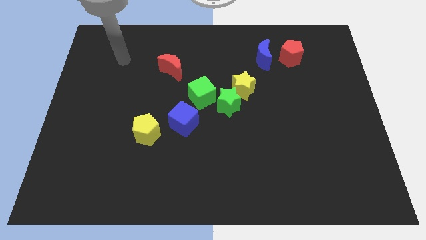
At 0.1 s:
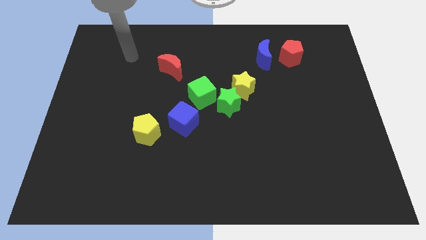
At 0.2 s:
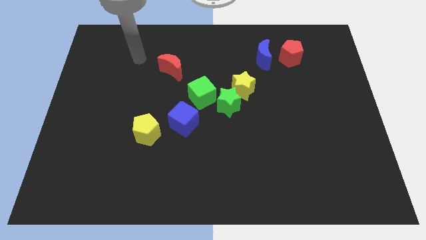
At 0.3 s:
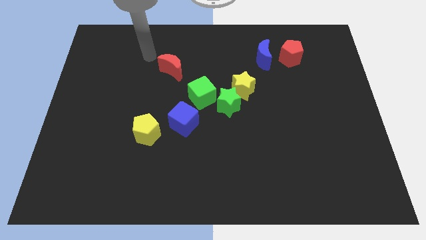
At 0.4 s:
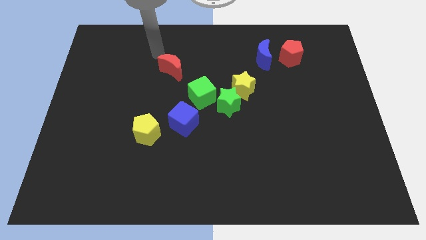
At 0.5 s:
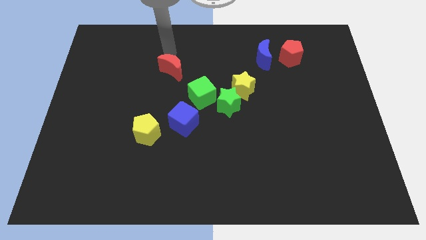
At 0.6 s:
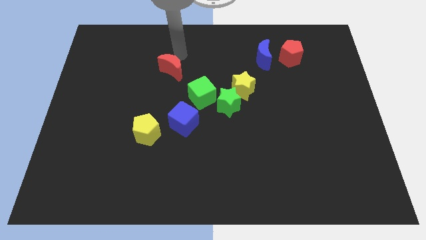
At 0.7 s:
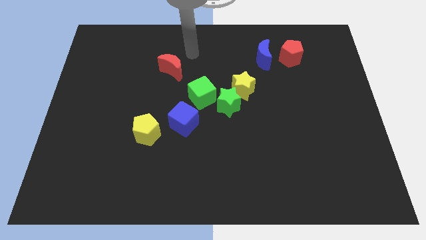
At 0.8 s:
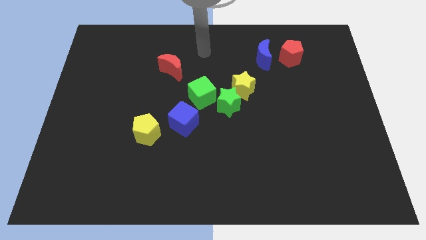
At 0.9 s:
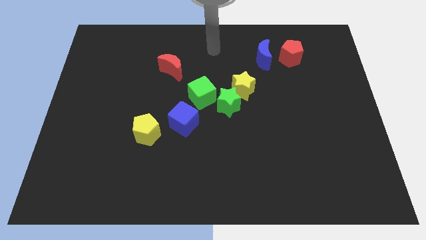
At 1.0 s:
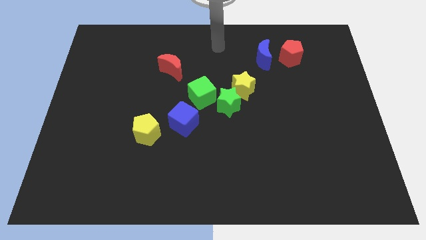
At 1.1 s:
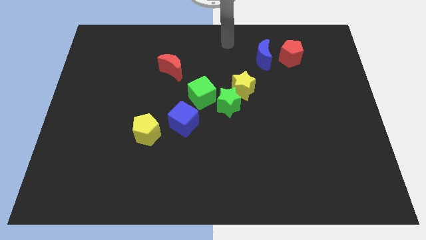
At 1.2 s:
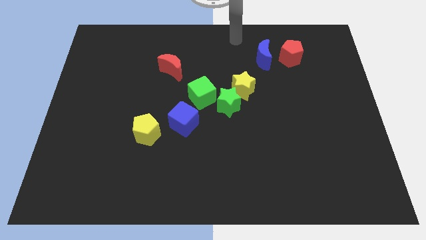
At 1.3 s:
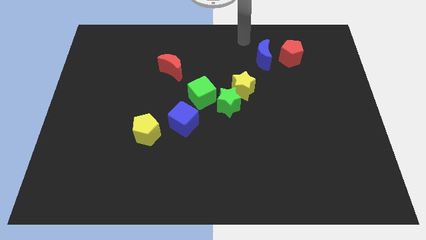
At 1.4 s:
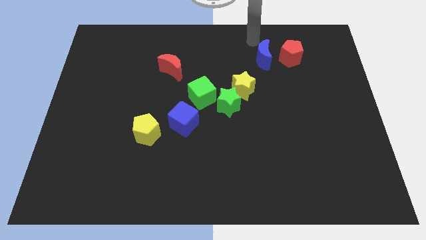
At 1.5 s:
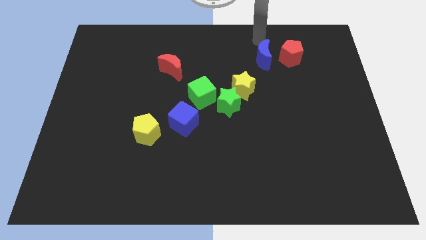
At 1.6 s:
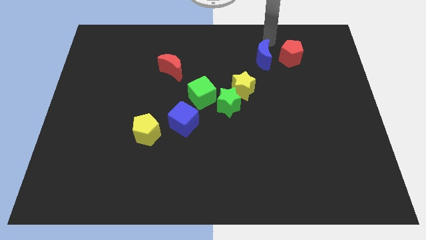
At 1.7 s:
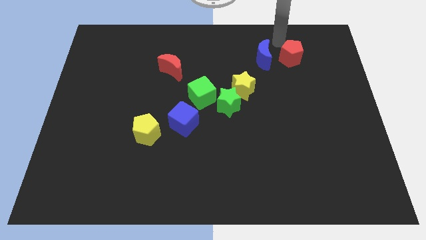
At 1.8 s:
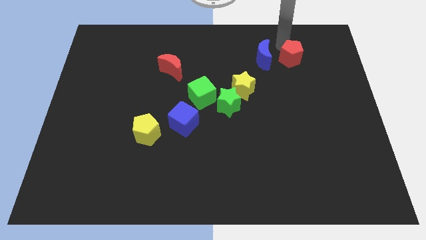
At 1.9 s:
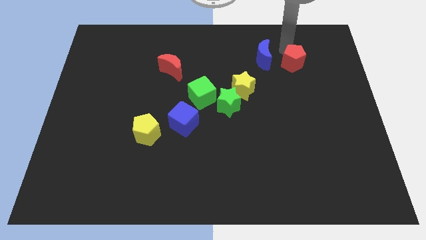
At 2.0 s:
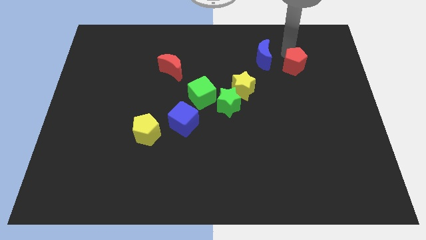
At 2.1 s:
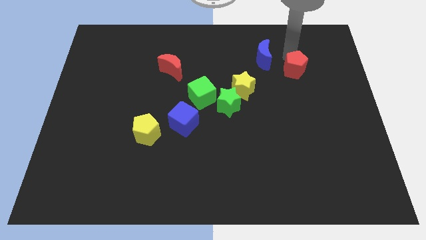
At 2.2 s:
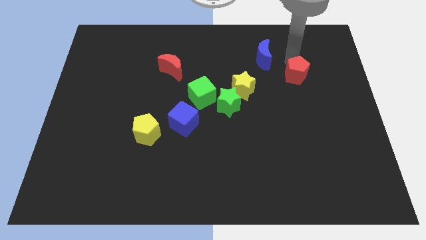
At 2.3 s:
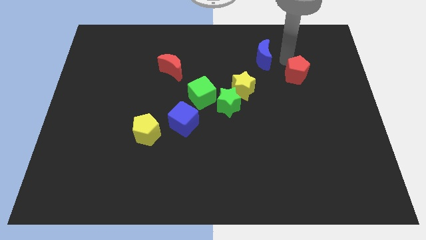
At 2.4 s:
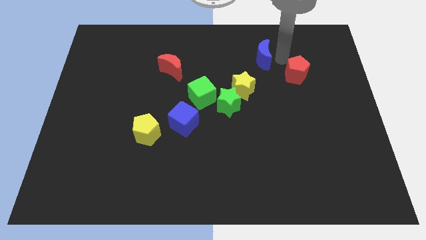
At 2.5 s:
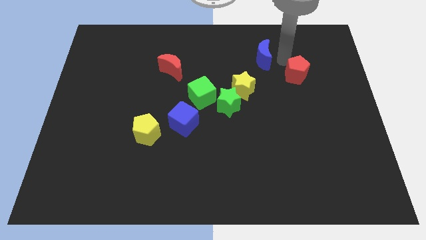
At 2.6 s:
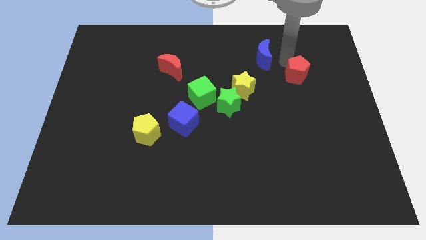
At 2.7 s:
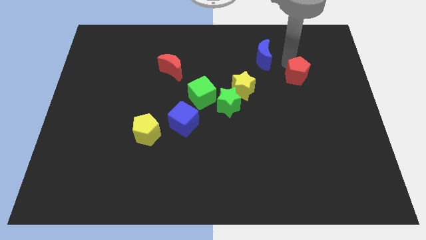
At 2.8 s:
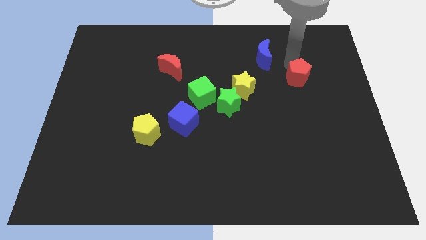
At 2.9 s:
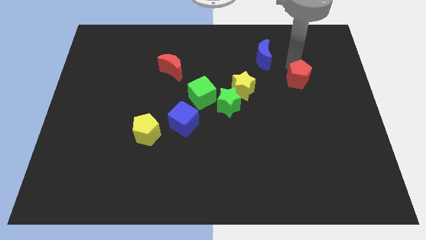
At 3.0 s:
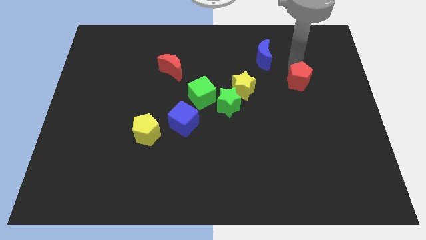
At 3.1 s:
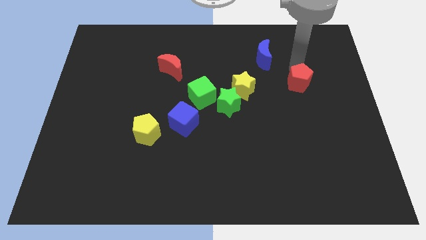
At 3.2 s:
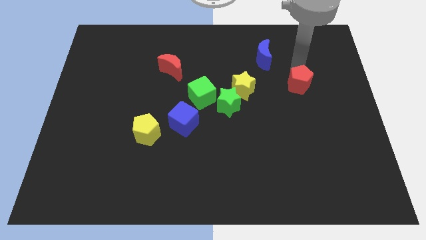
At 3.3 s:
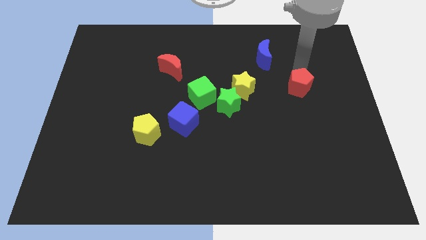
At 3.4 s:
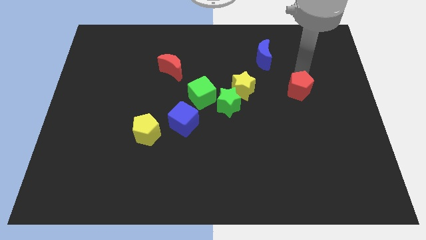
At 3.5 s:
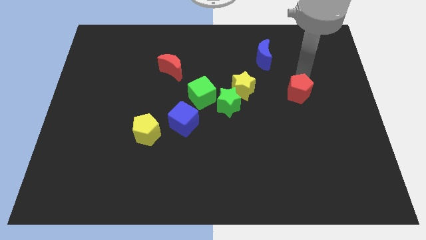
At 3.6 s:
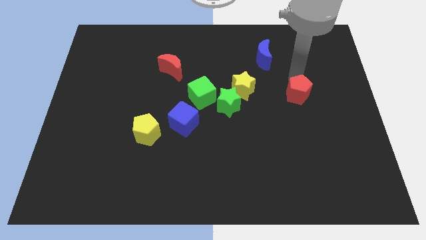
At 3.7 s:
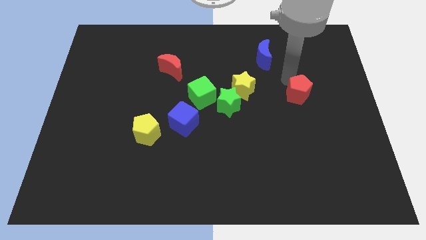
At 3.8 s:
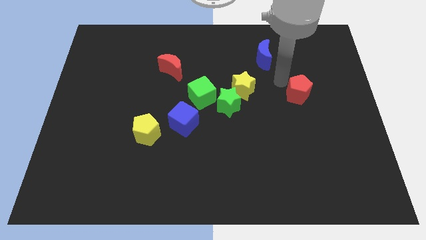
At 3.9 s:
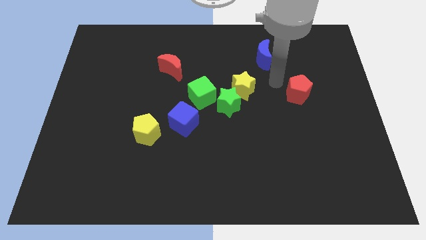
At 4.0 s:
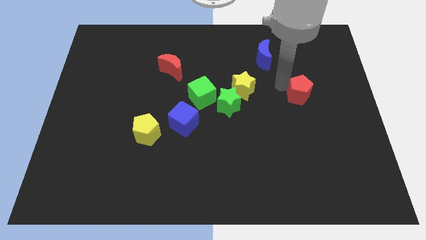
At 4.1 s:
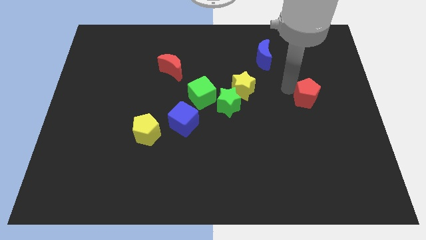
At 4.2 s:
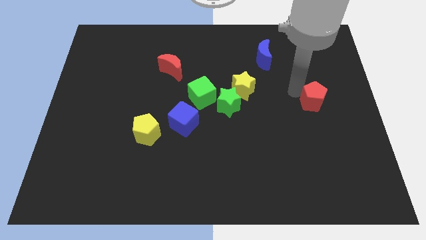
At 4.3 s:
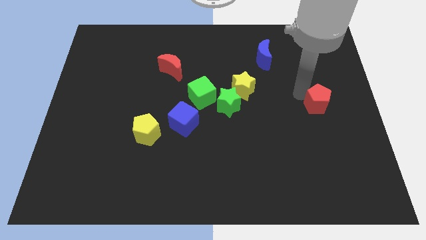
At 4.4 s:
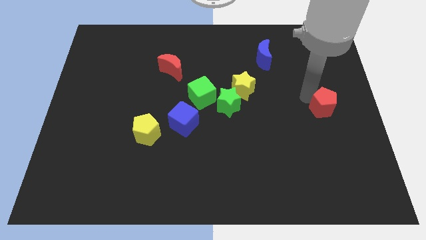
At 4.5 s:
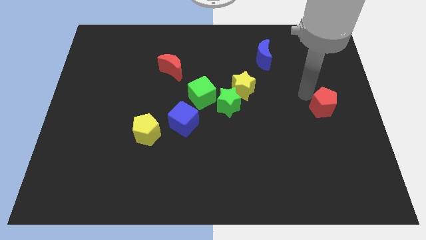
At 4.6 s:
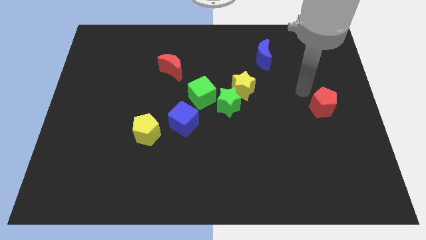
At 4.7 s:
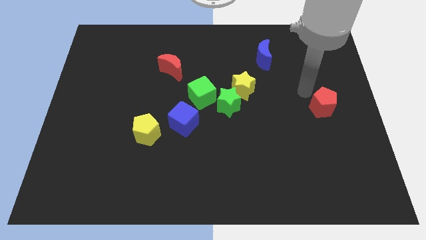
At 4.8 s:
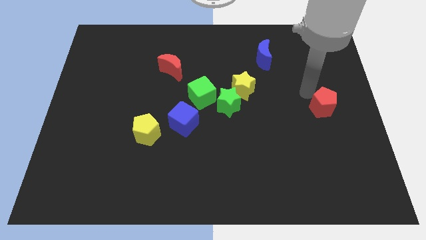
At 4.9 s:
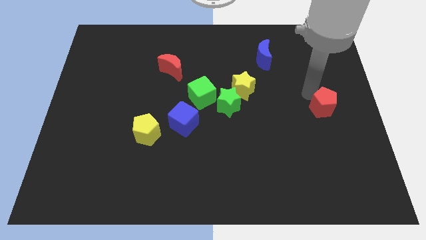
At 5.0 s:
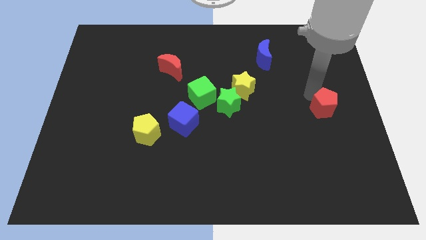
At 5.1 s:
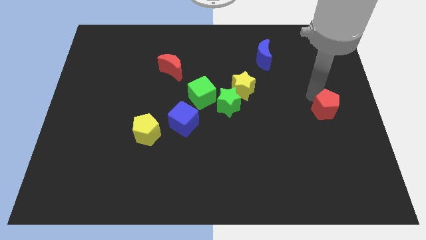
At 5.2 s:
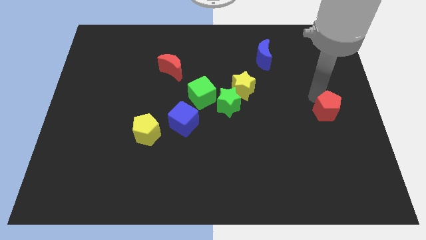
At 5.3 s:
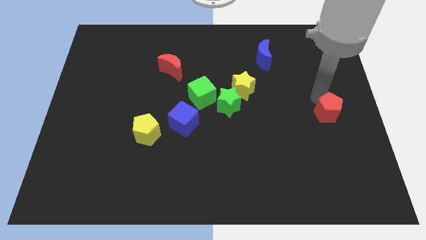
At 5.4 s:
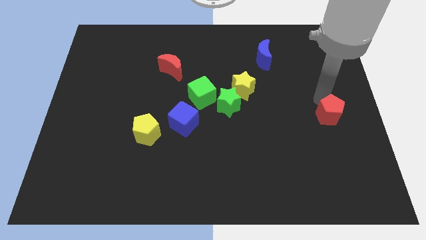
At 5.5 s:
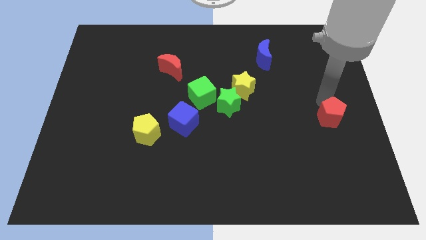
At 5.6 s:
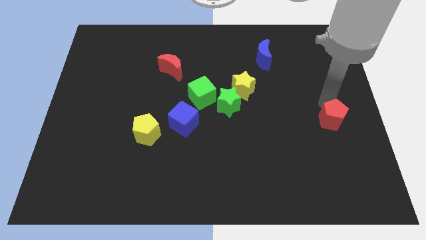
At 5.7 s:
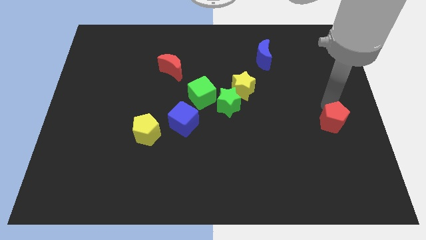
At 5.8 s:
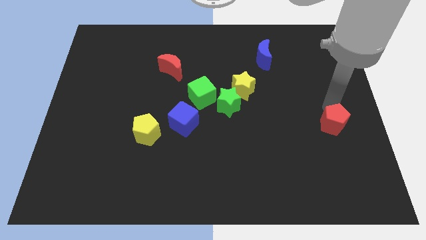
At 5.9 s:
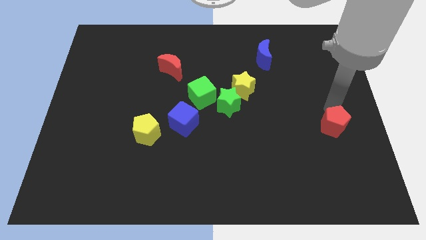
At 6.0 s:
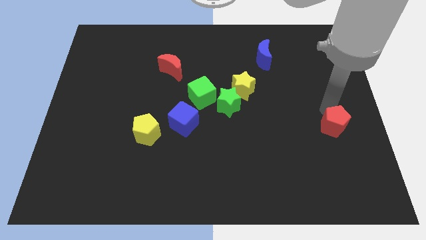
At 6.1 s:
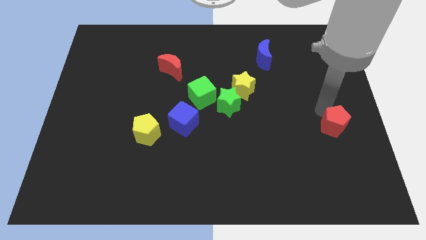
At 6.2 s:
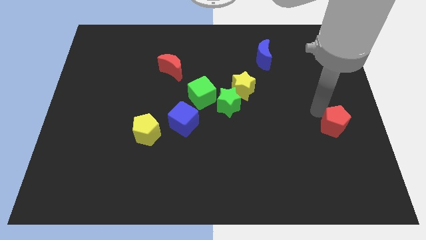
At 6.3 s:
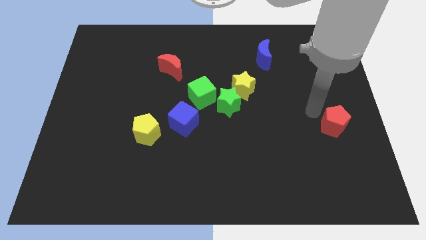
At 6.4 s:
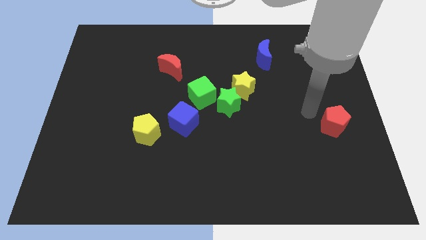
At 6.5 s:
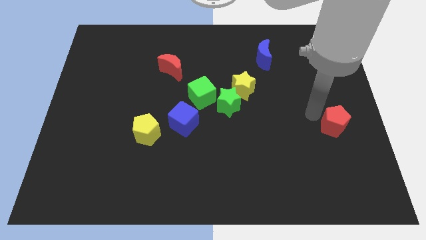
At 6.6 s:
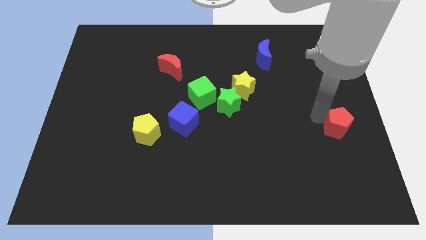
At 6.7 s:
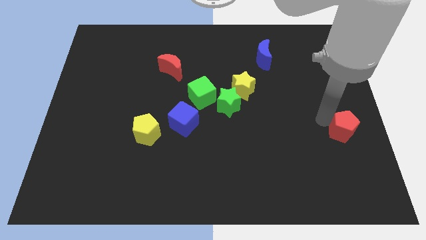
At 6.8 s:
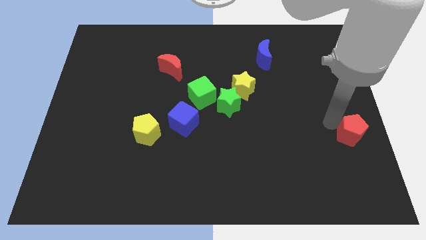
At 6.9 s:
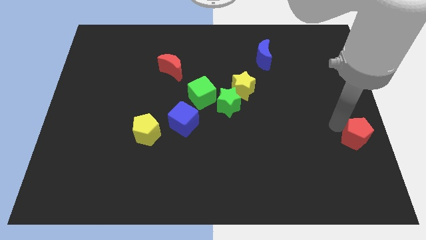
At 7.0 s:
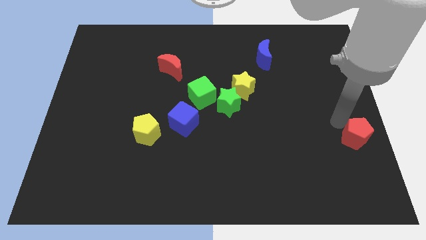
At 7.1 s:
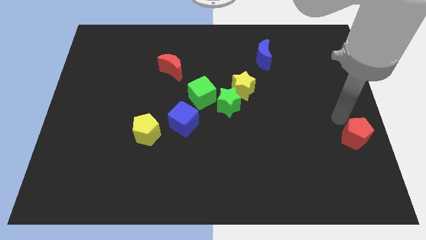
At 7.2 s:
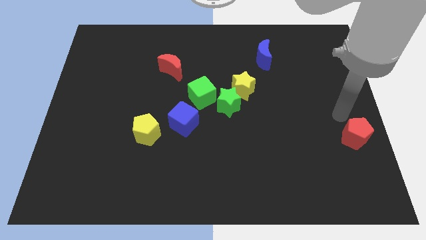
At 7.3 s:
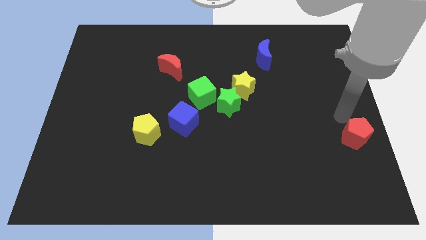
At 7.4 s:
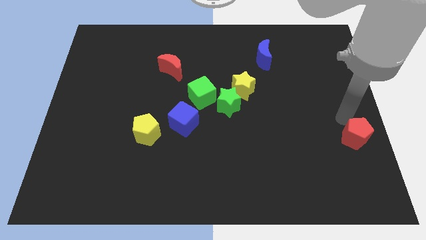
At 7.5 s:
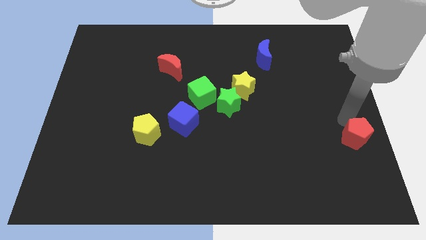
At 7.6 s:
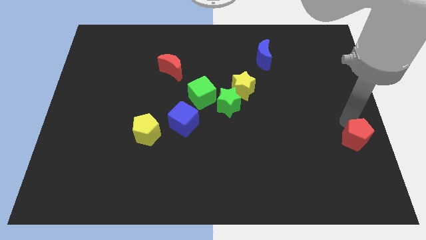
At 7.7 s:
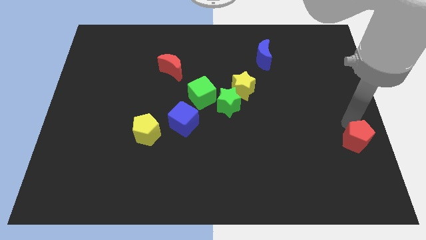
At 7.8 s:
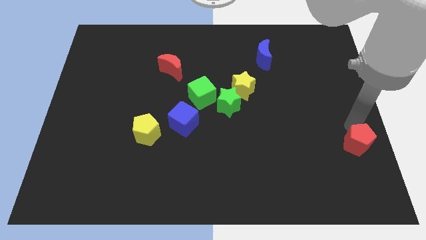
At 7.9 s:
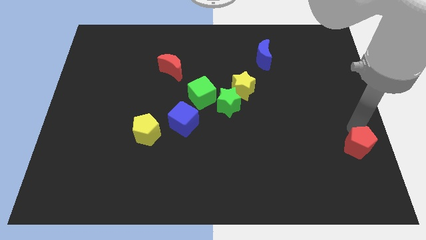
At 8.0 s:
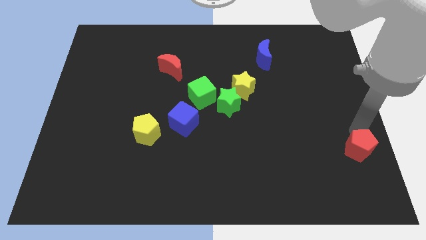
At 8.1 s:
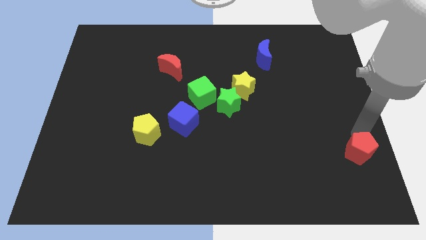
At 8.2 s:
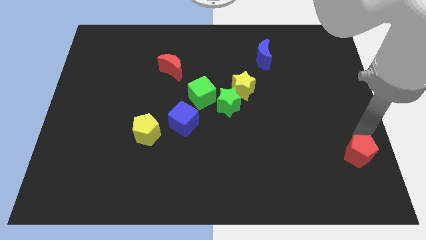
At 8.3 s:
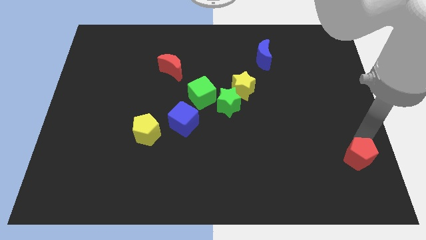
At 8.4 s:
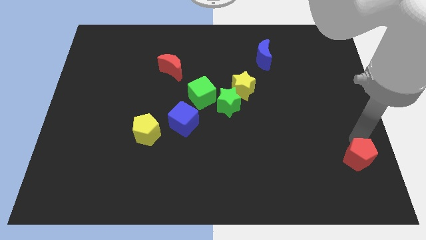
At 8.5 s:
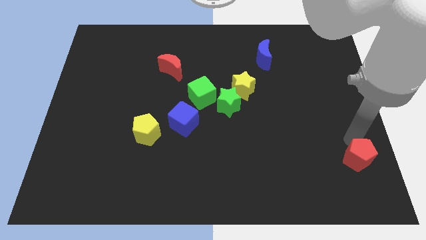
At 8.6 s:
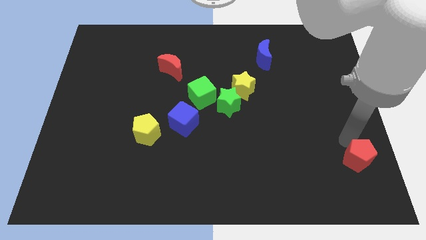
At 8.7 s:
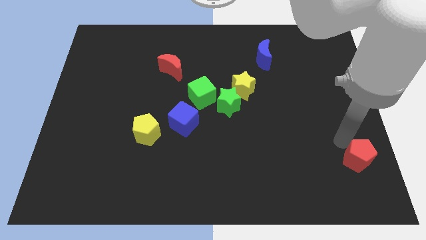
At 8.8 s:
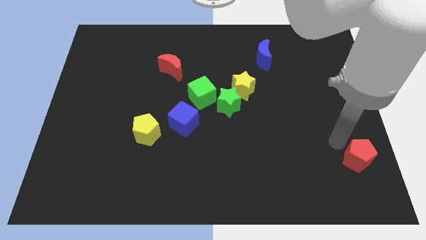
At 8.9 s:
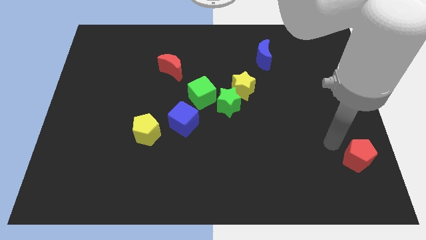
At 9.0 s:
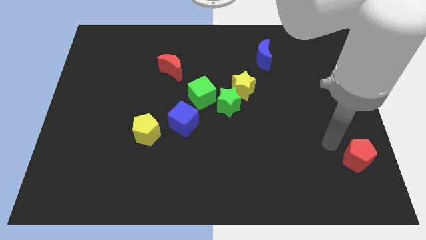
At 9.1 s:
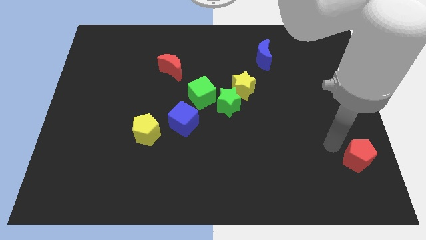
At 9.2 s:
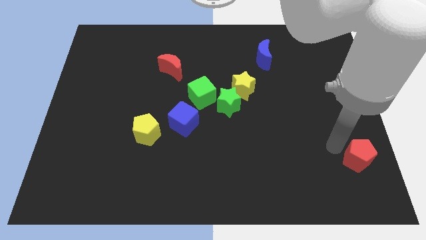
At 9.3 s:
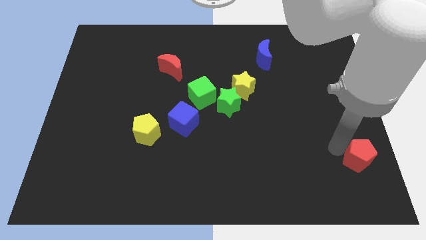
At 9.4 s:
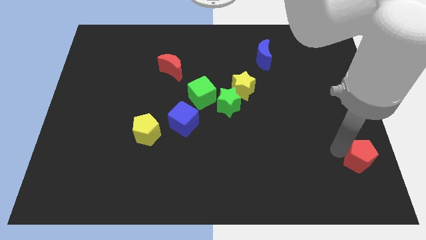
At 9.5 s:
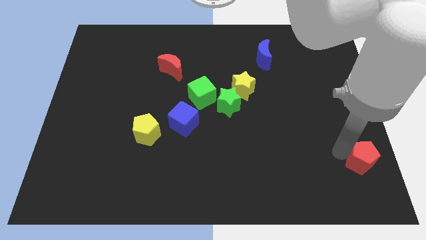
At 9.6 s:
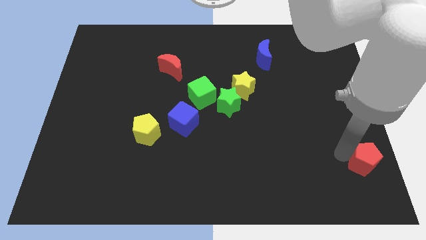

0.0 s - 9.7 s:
slide the red pentagon to the lower right corner
